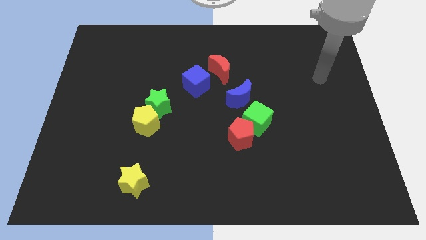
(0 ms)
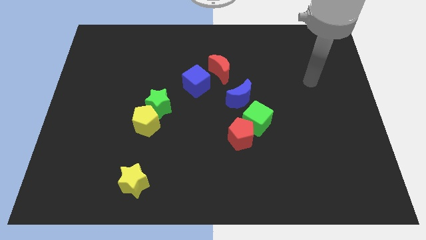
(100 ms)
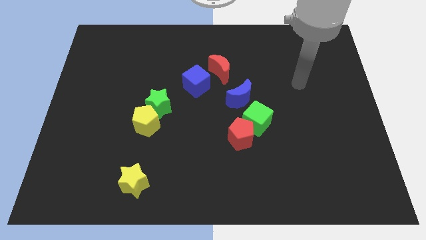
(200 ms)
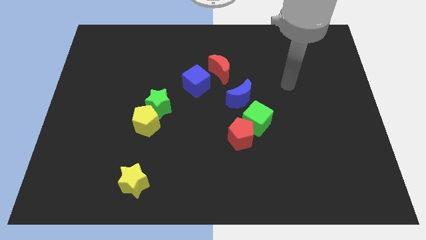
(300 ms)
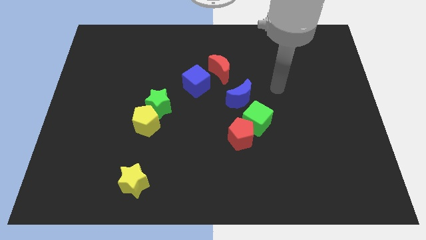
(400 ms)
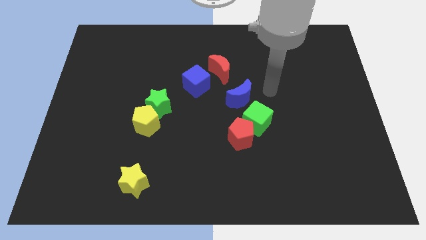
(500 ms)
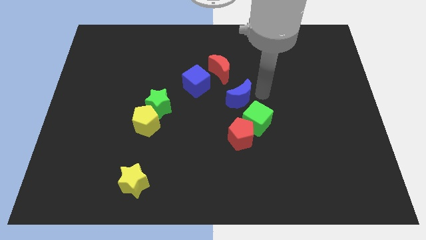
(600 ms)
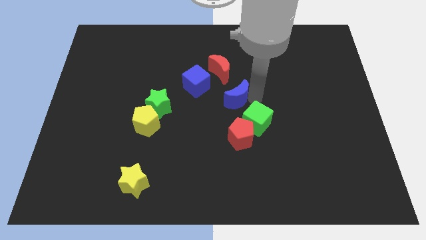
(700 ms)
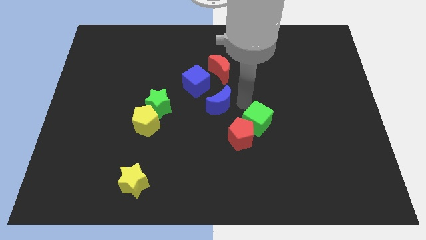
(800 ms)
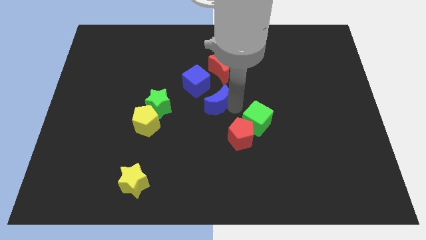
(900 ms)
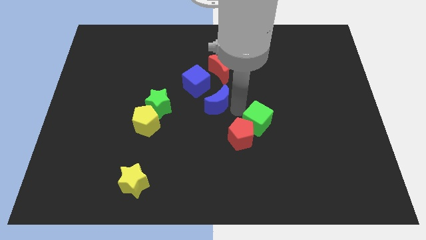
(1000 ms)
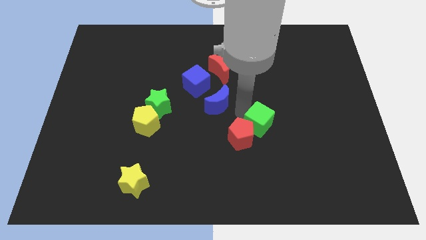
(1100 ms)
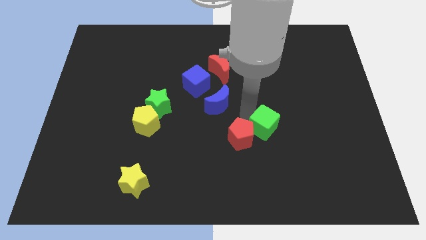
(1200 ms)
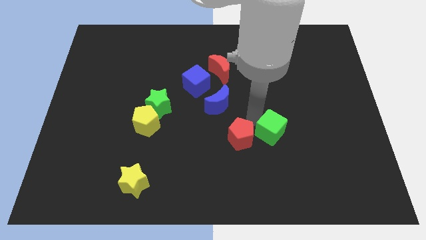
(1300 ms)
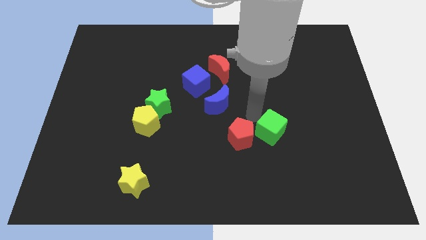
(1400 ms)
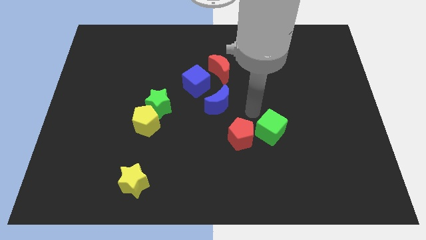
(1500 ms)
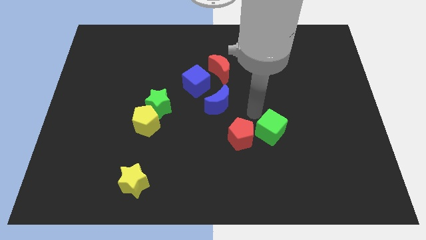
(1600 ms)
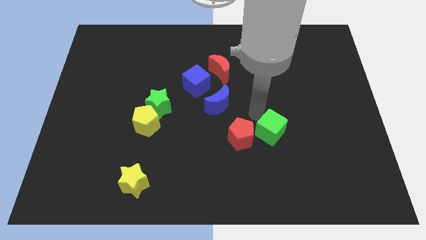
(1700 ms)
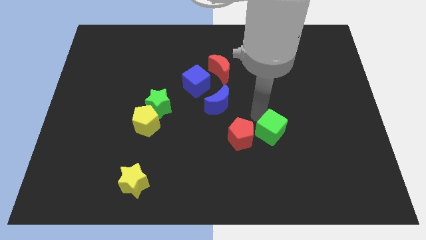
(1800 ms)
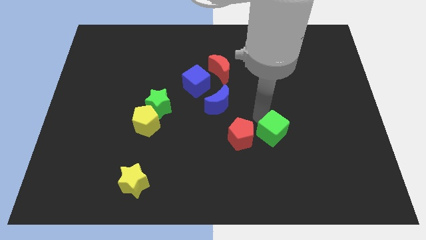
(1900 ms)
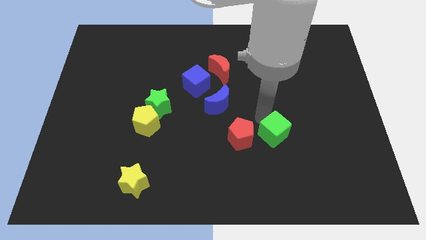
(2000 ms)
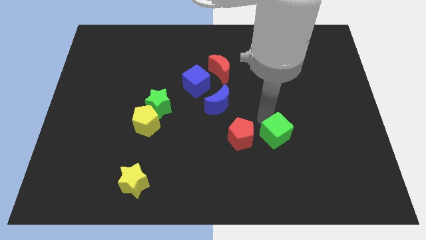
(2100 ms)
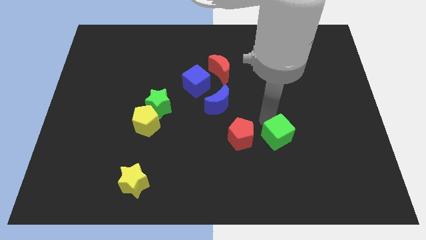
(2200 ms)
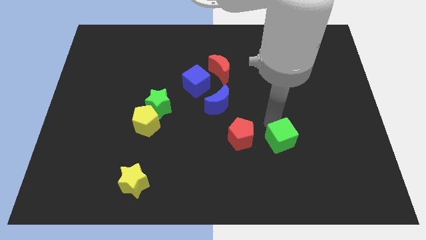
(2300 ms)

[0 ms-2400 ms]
slightly push the green cube downwards and then right

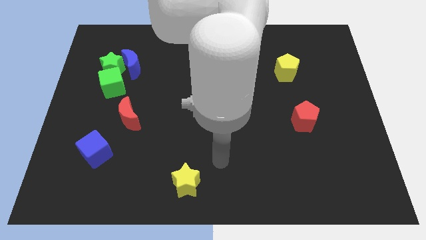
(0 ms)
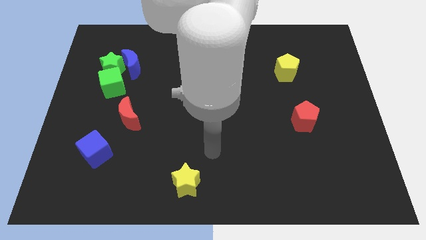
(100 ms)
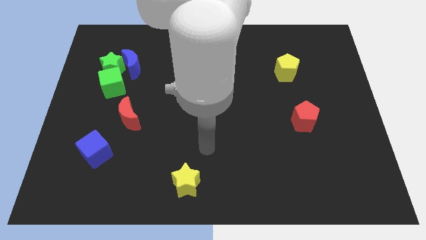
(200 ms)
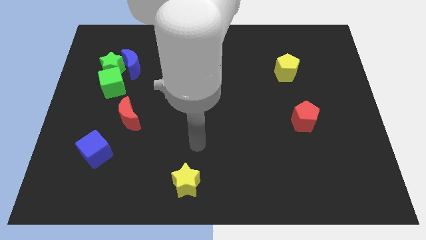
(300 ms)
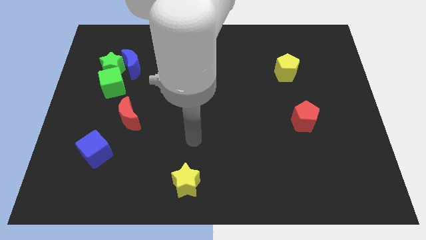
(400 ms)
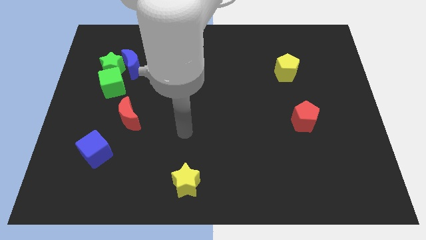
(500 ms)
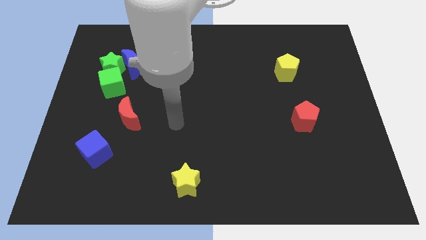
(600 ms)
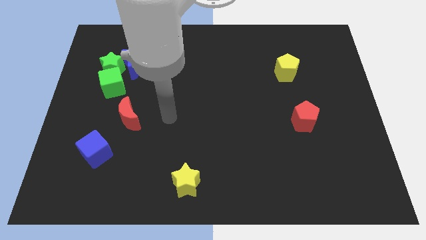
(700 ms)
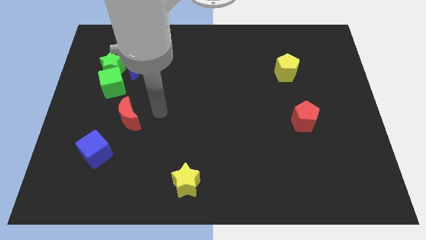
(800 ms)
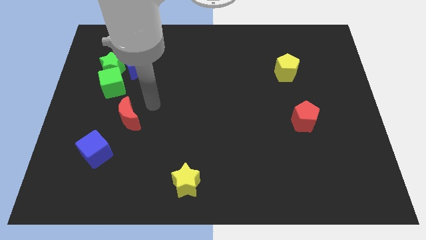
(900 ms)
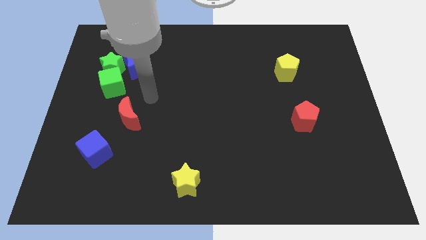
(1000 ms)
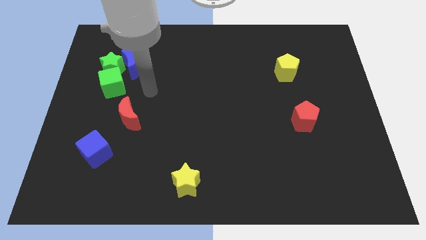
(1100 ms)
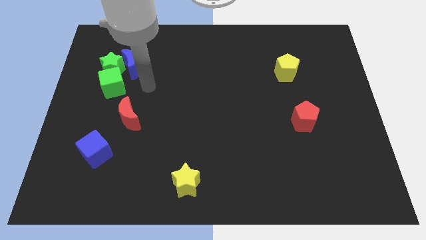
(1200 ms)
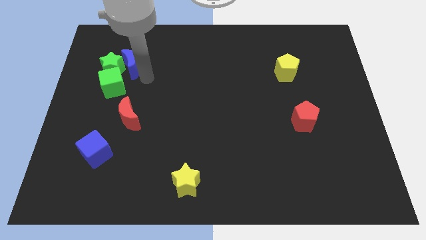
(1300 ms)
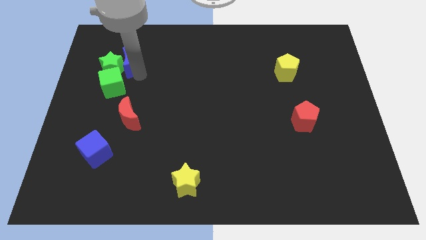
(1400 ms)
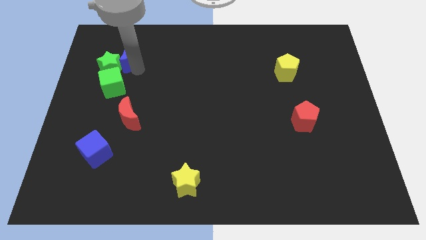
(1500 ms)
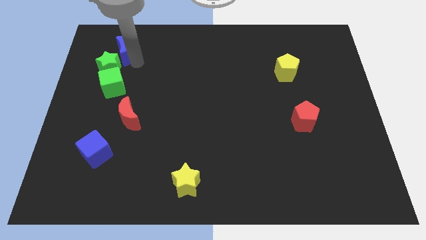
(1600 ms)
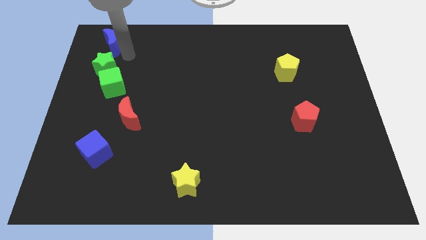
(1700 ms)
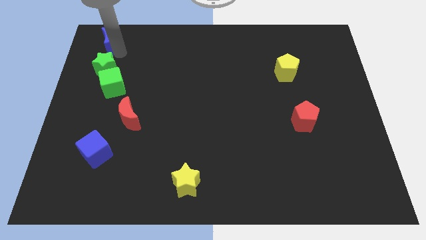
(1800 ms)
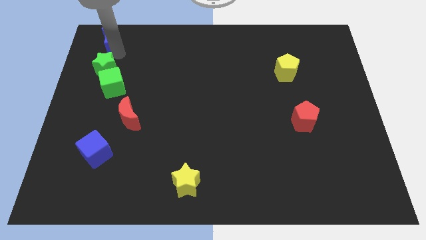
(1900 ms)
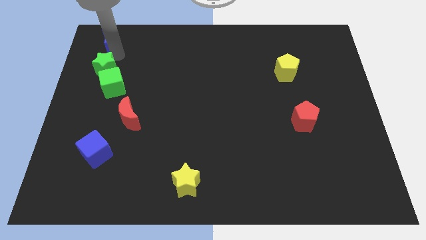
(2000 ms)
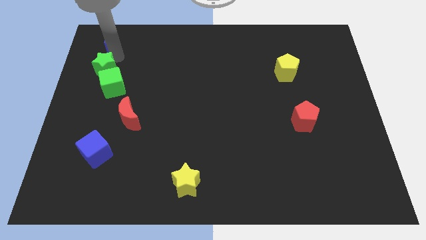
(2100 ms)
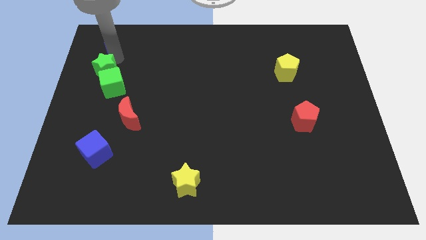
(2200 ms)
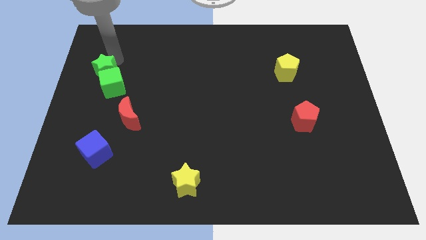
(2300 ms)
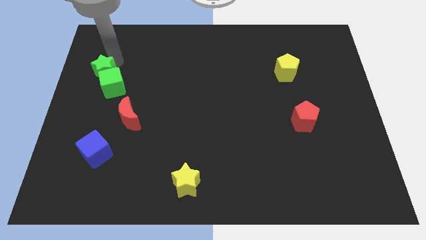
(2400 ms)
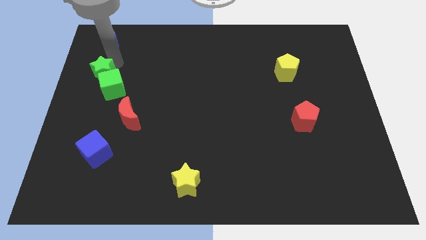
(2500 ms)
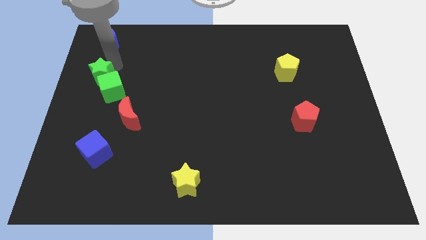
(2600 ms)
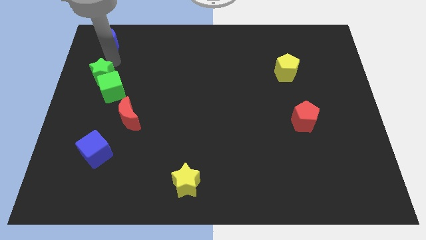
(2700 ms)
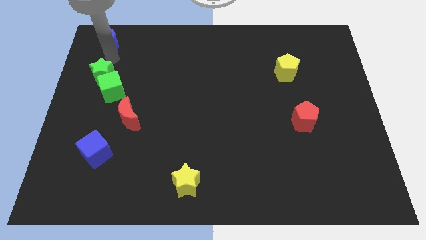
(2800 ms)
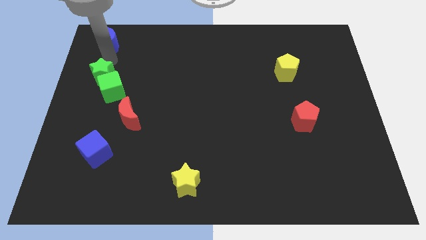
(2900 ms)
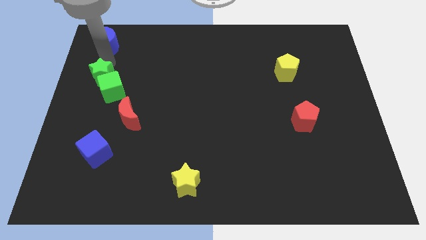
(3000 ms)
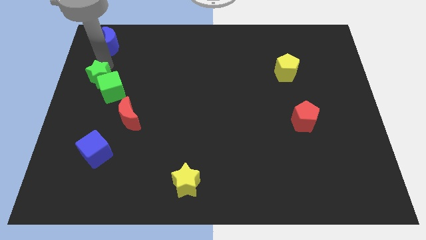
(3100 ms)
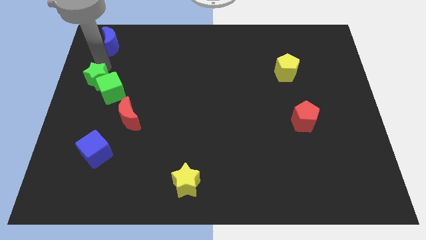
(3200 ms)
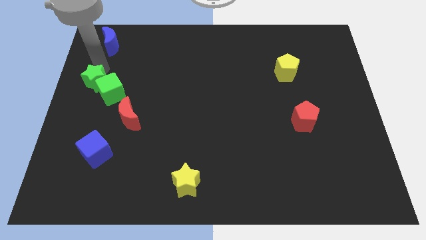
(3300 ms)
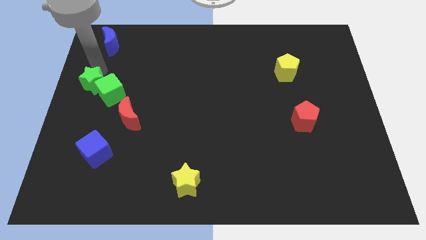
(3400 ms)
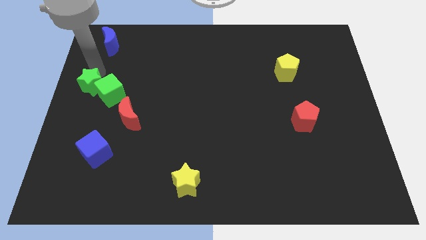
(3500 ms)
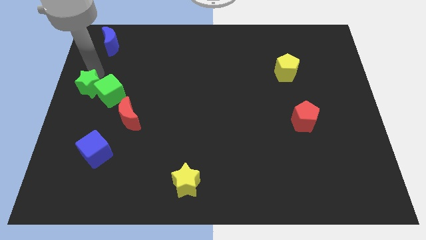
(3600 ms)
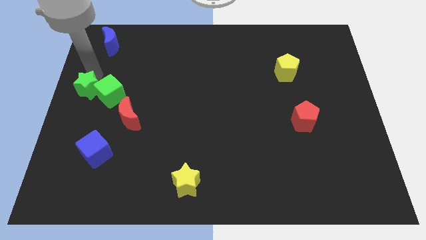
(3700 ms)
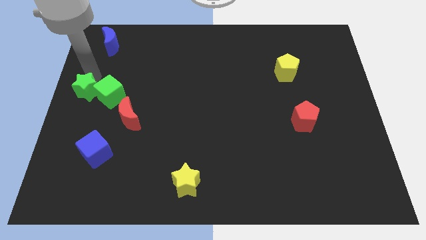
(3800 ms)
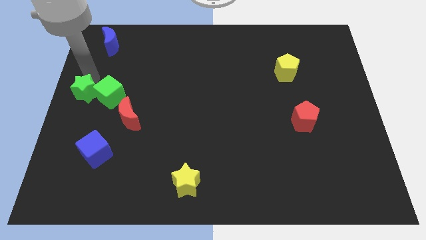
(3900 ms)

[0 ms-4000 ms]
slightly slide the green star downwards

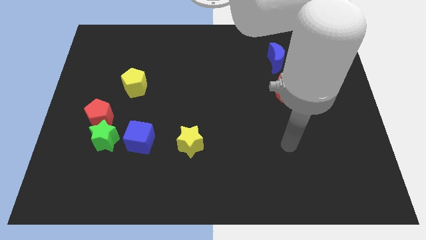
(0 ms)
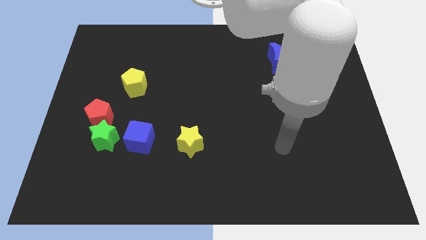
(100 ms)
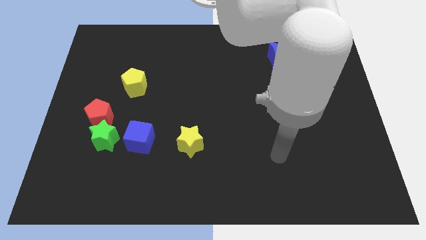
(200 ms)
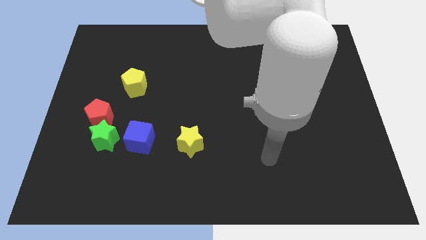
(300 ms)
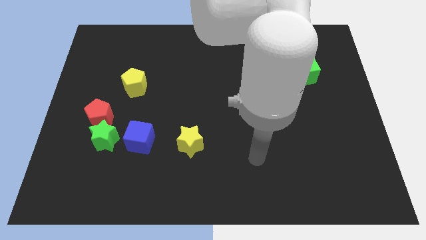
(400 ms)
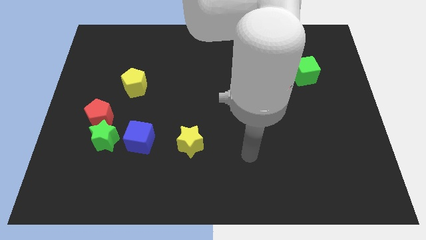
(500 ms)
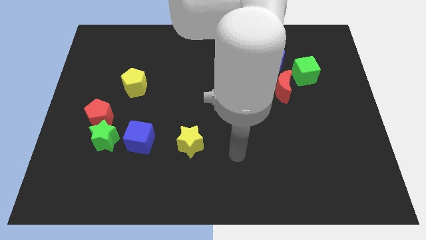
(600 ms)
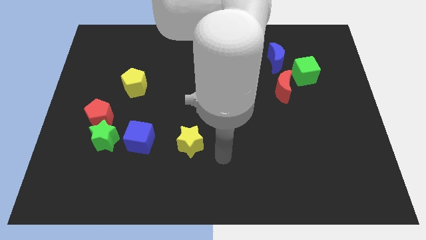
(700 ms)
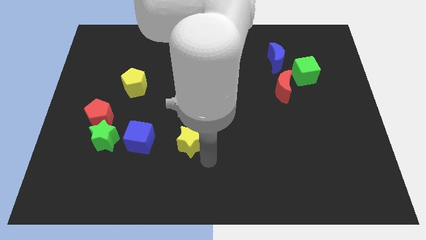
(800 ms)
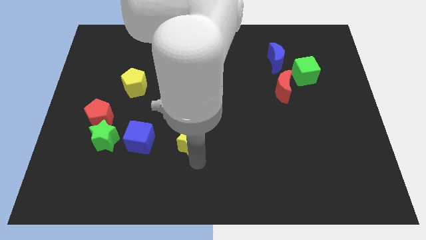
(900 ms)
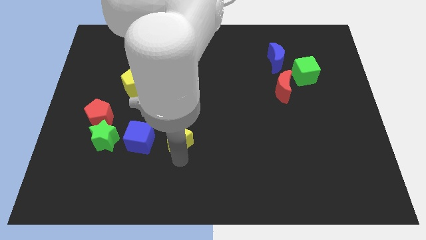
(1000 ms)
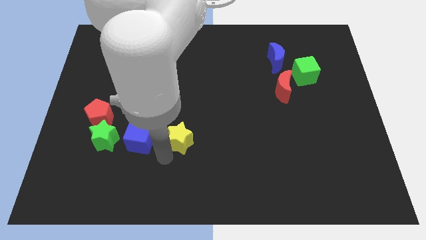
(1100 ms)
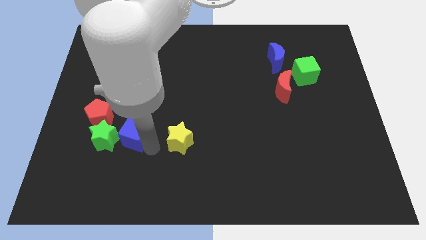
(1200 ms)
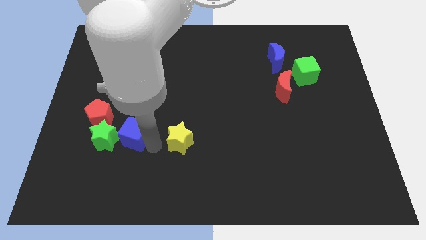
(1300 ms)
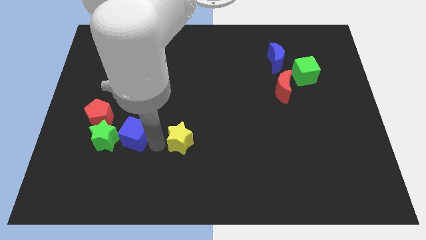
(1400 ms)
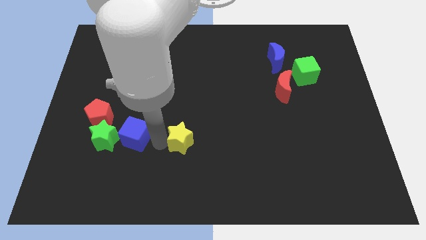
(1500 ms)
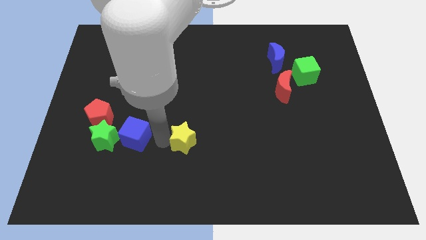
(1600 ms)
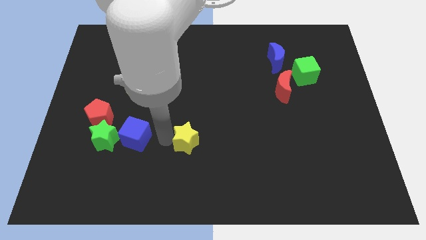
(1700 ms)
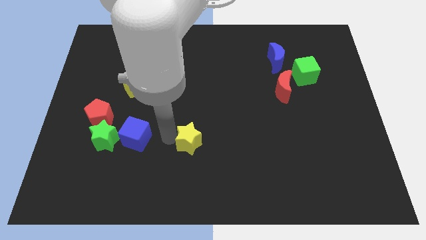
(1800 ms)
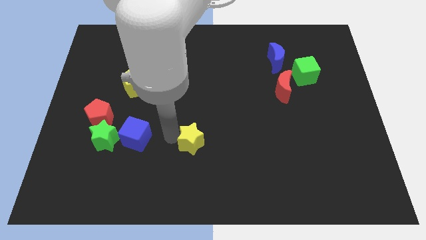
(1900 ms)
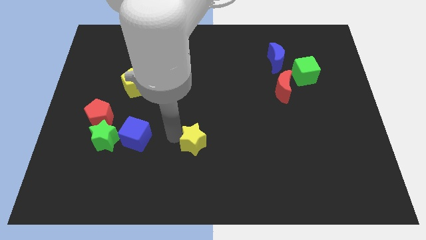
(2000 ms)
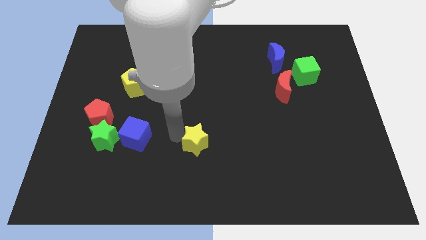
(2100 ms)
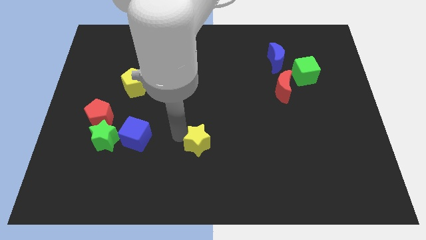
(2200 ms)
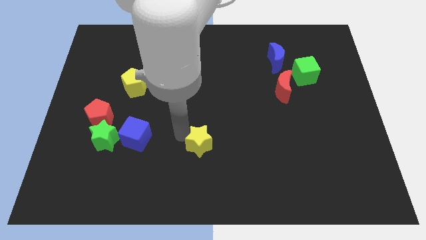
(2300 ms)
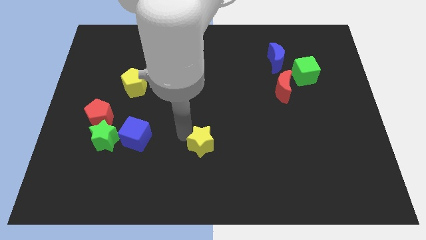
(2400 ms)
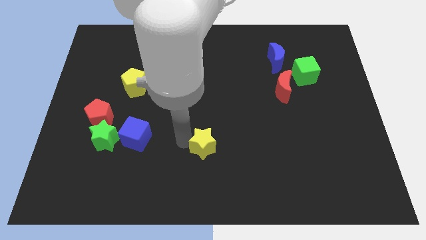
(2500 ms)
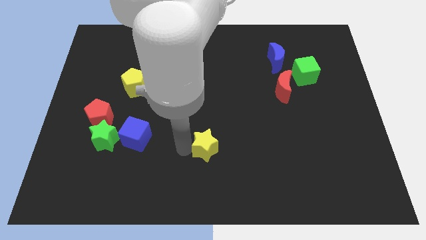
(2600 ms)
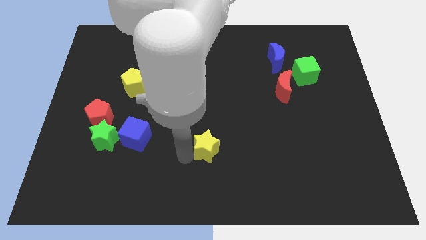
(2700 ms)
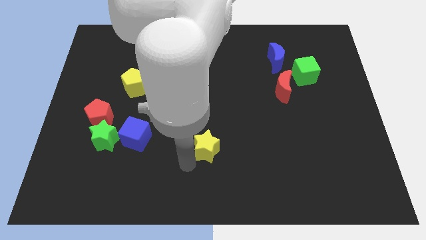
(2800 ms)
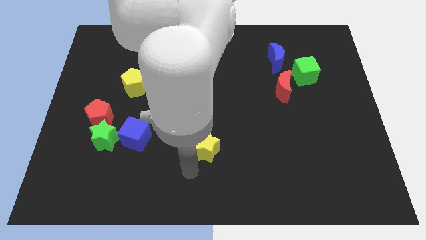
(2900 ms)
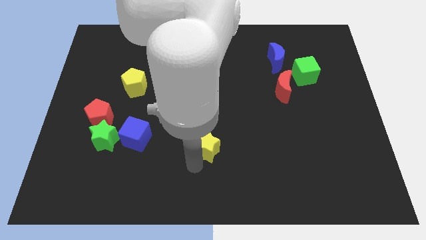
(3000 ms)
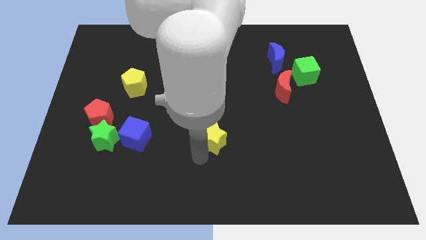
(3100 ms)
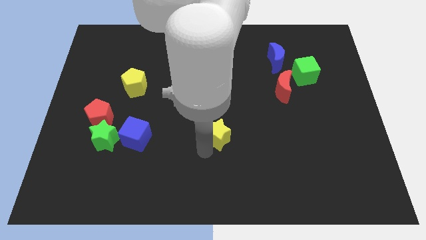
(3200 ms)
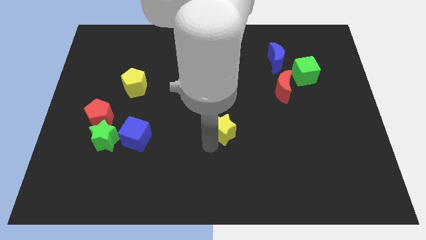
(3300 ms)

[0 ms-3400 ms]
push the yellow star somewhat diagonally up and right
